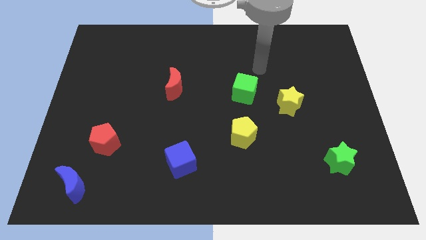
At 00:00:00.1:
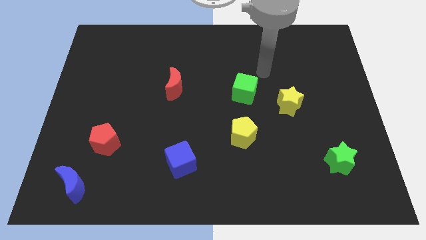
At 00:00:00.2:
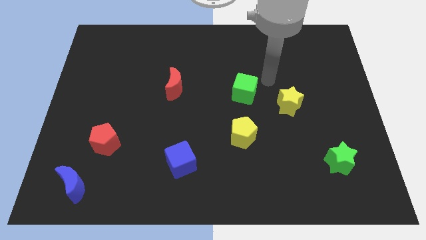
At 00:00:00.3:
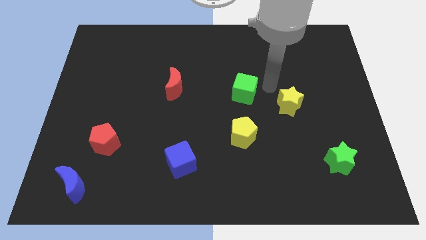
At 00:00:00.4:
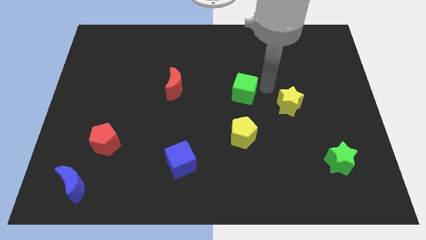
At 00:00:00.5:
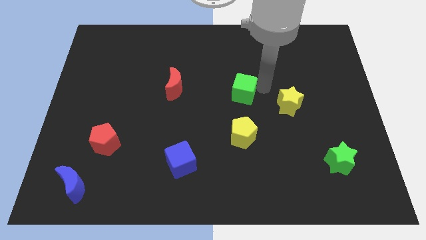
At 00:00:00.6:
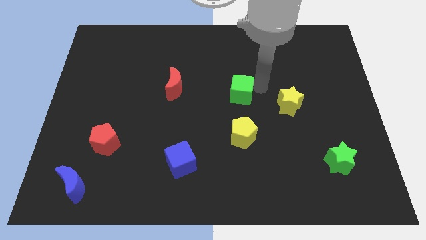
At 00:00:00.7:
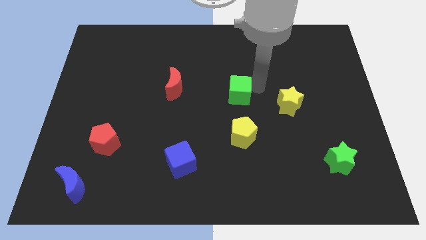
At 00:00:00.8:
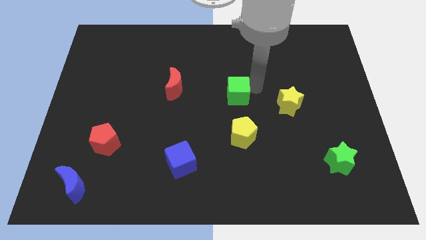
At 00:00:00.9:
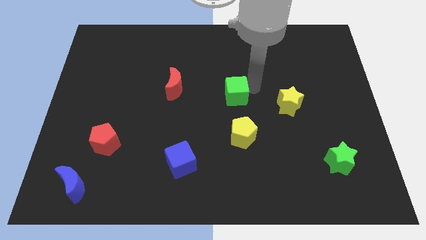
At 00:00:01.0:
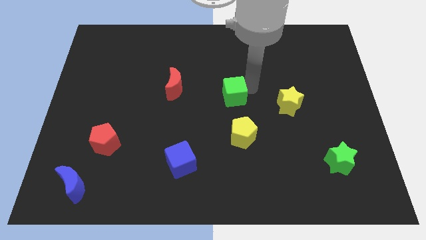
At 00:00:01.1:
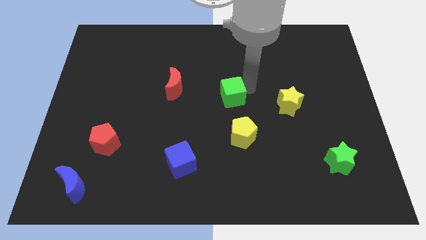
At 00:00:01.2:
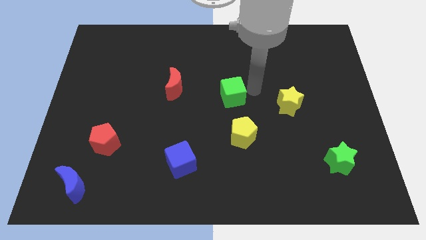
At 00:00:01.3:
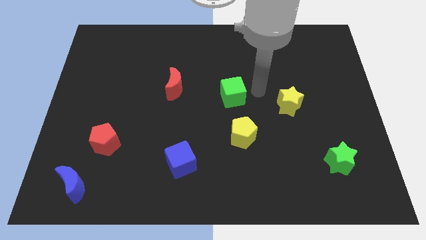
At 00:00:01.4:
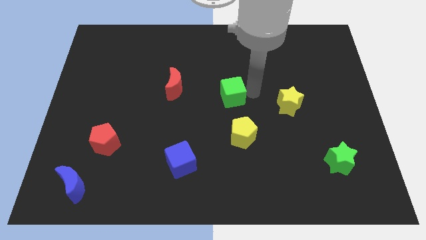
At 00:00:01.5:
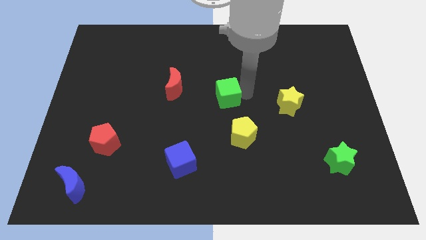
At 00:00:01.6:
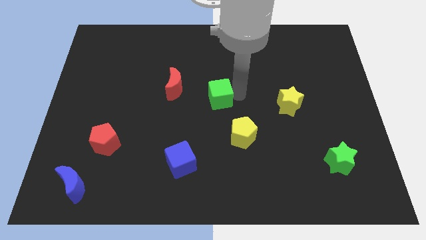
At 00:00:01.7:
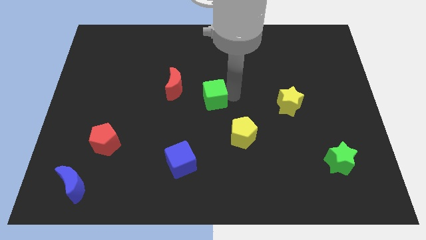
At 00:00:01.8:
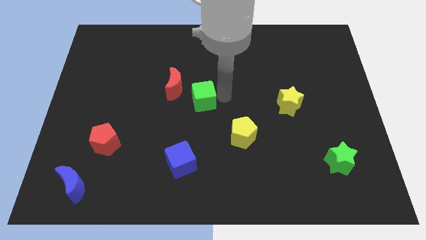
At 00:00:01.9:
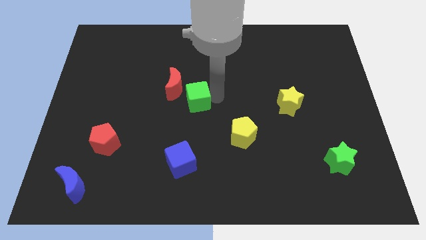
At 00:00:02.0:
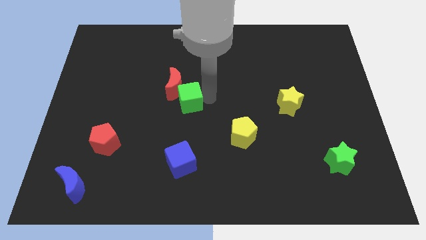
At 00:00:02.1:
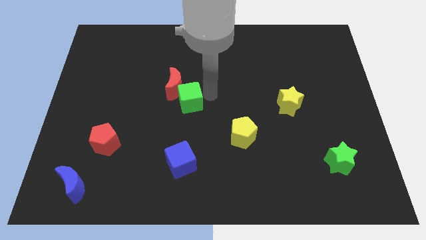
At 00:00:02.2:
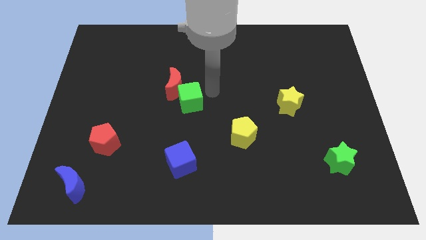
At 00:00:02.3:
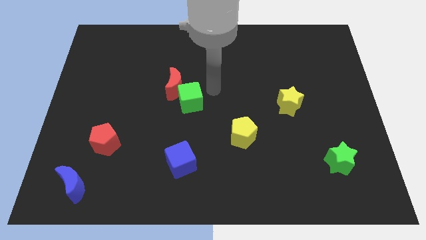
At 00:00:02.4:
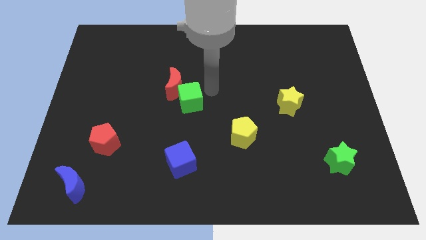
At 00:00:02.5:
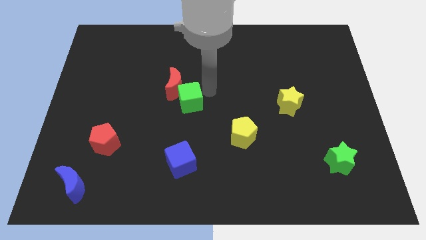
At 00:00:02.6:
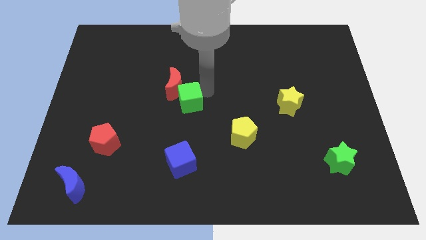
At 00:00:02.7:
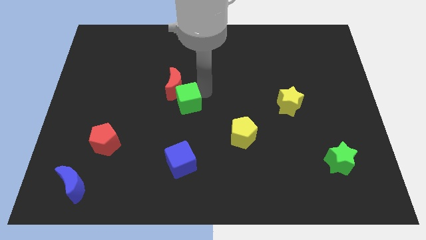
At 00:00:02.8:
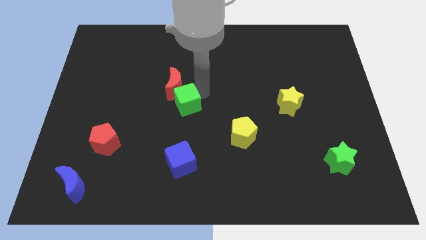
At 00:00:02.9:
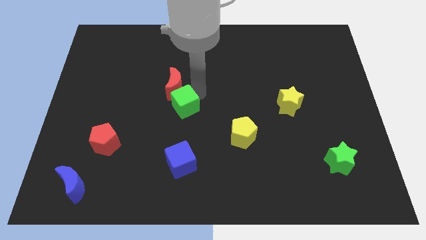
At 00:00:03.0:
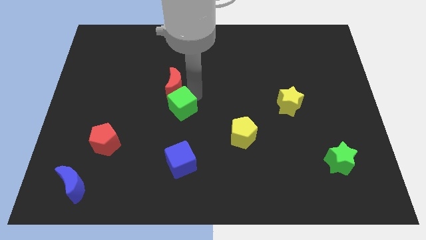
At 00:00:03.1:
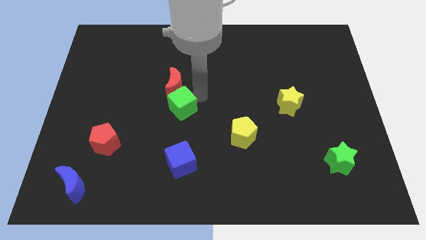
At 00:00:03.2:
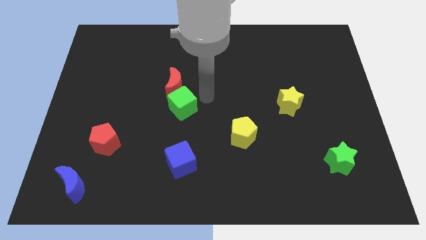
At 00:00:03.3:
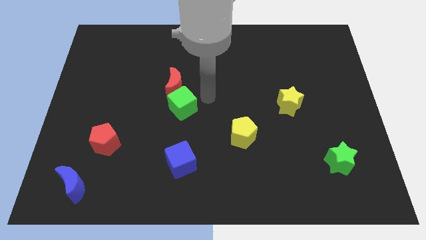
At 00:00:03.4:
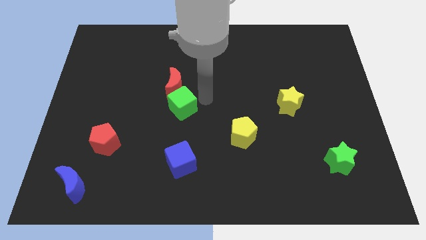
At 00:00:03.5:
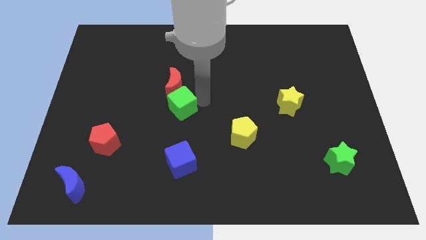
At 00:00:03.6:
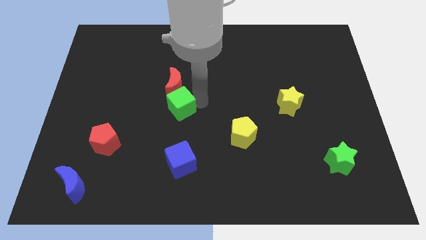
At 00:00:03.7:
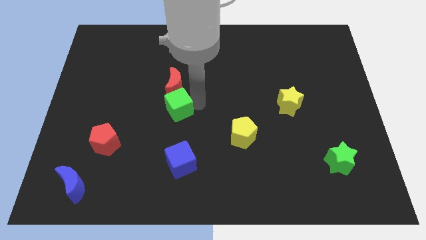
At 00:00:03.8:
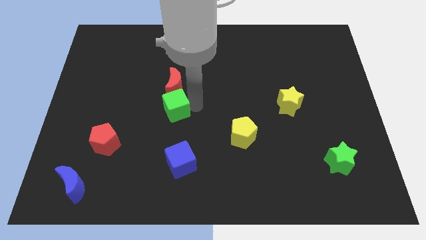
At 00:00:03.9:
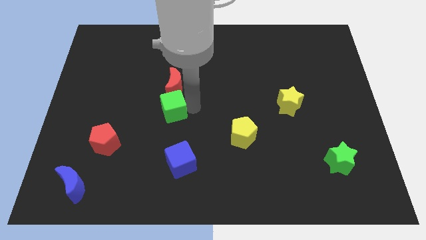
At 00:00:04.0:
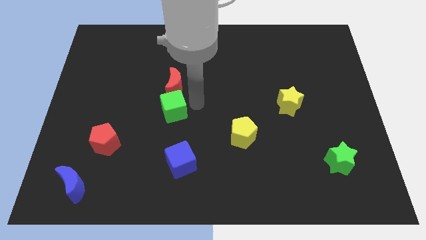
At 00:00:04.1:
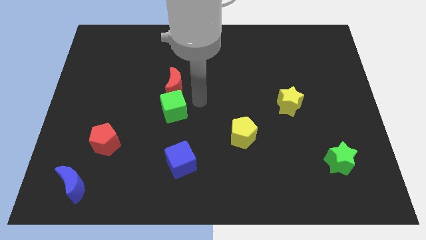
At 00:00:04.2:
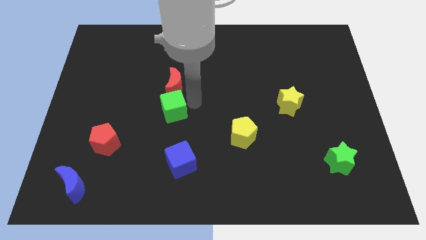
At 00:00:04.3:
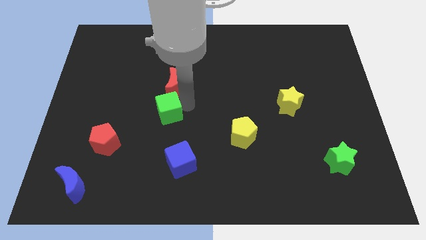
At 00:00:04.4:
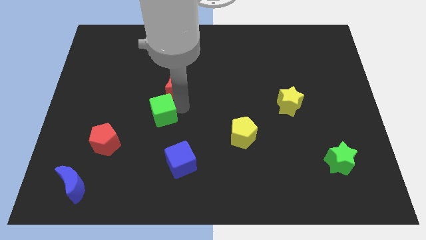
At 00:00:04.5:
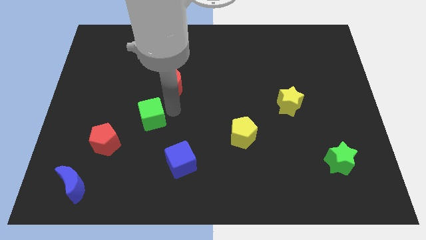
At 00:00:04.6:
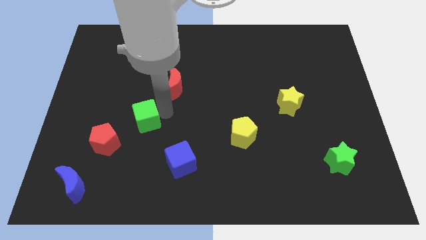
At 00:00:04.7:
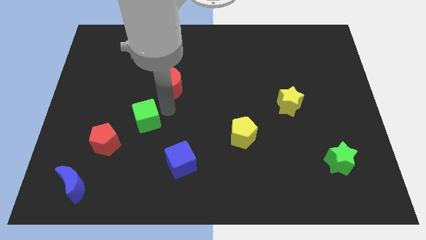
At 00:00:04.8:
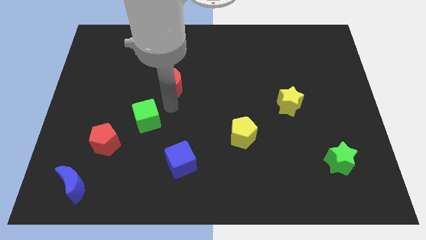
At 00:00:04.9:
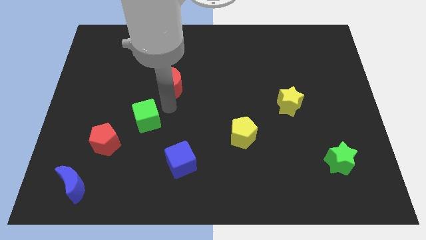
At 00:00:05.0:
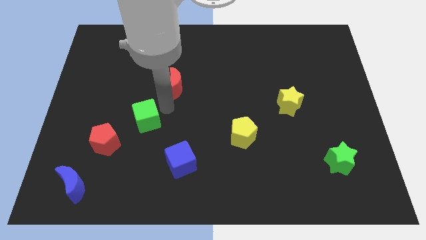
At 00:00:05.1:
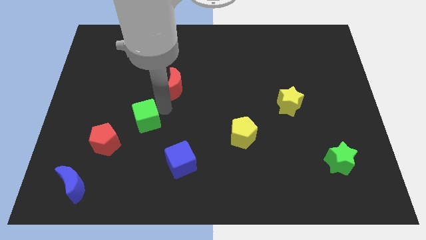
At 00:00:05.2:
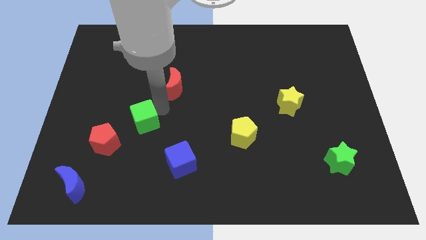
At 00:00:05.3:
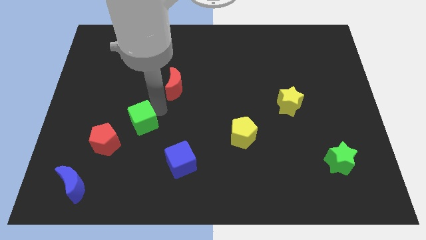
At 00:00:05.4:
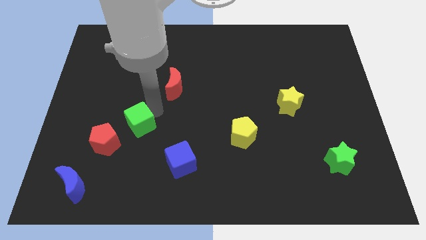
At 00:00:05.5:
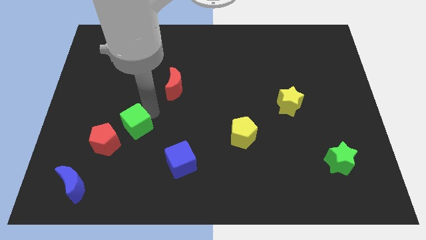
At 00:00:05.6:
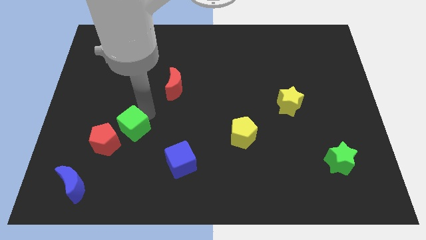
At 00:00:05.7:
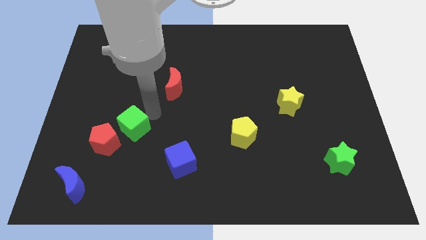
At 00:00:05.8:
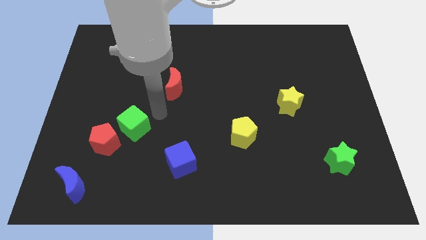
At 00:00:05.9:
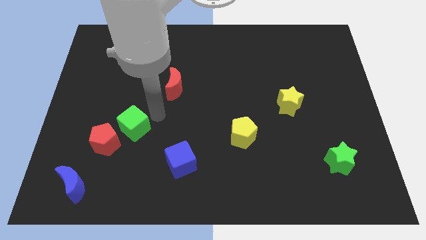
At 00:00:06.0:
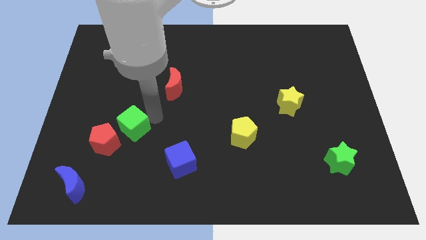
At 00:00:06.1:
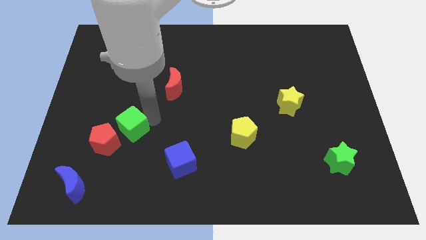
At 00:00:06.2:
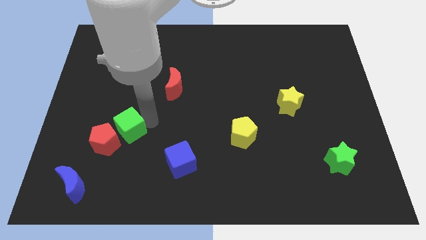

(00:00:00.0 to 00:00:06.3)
slide the green cube to the red pentagon
